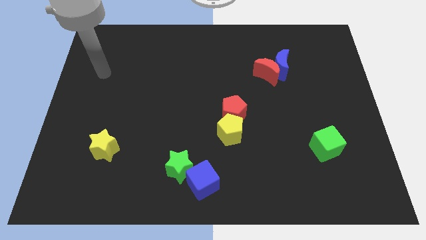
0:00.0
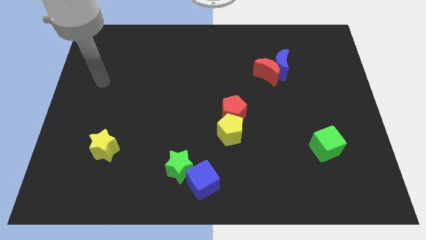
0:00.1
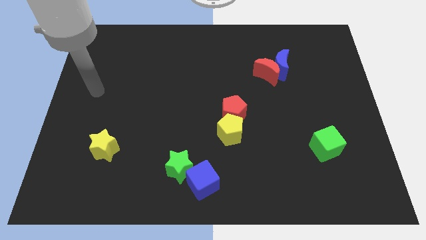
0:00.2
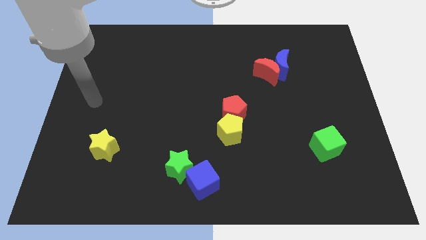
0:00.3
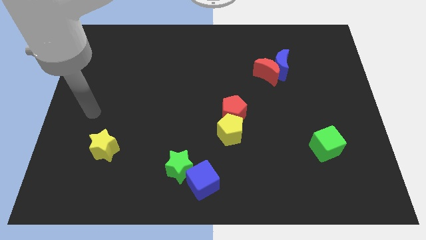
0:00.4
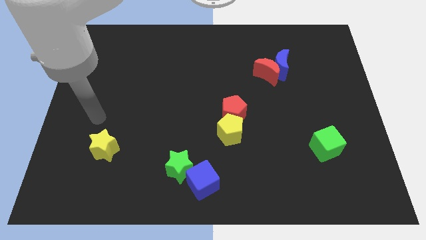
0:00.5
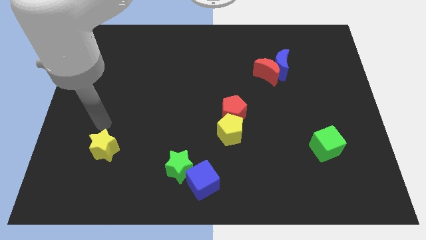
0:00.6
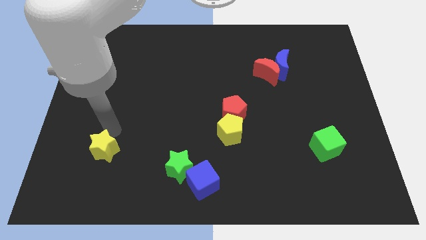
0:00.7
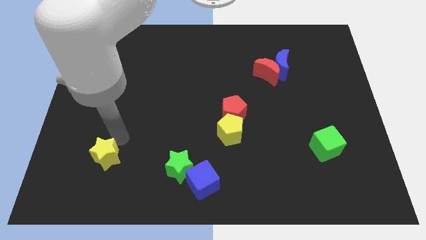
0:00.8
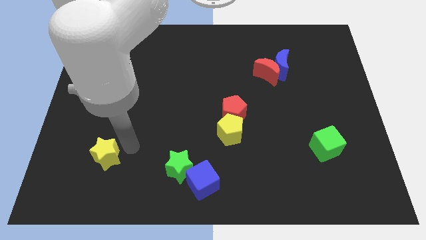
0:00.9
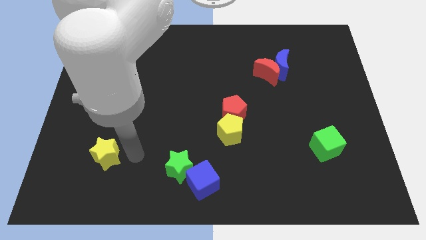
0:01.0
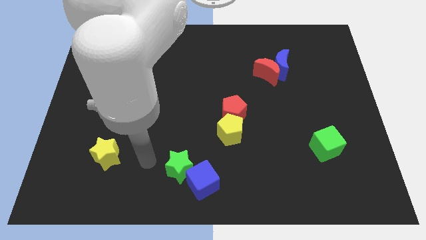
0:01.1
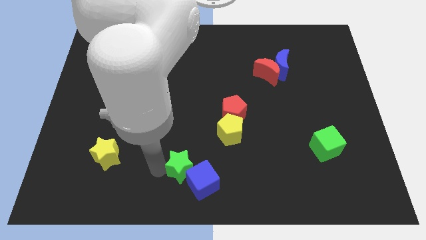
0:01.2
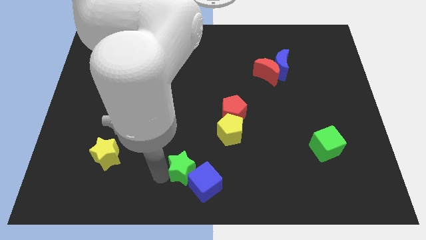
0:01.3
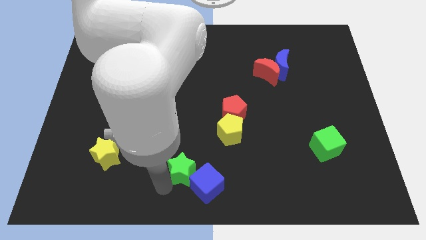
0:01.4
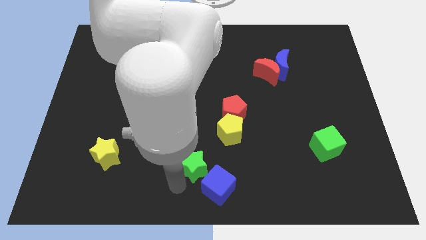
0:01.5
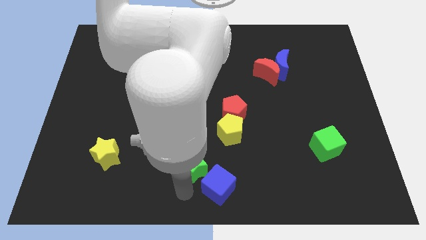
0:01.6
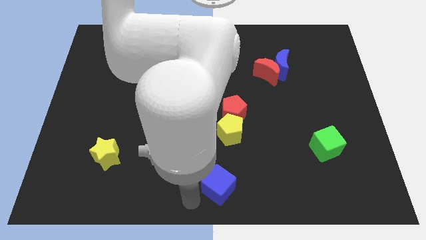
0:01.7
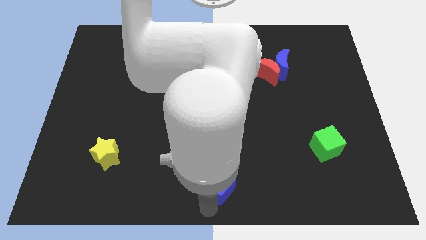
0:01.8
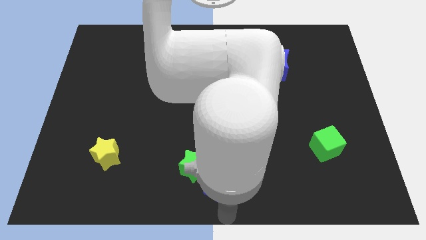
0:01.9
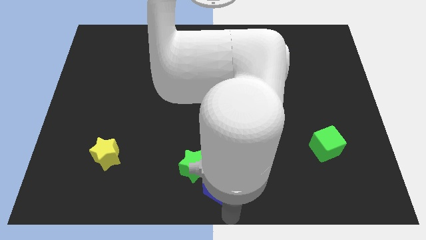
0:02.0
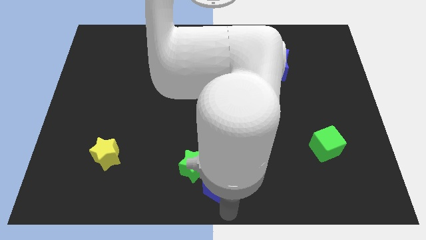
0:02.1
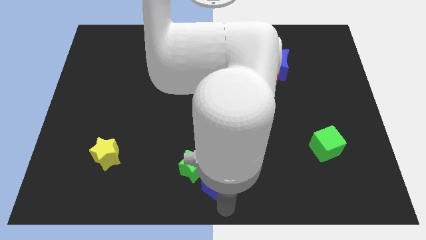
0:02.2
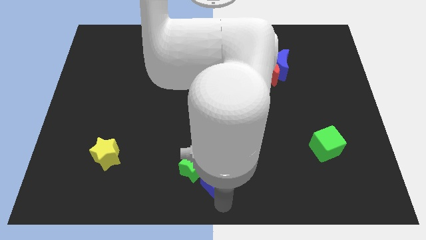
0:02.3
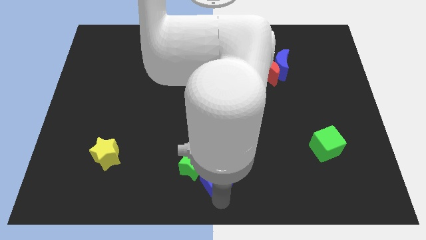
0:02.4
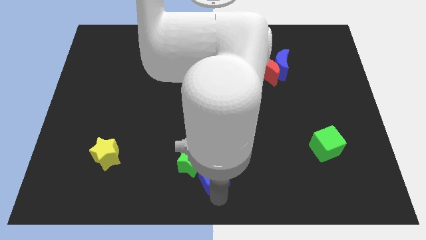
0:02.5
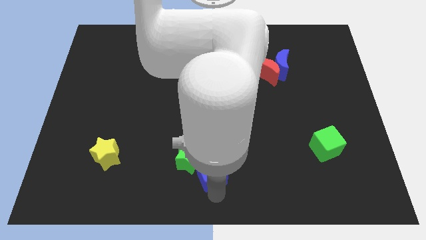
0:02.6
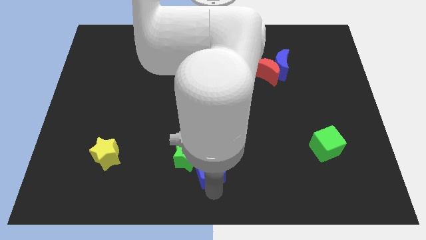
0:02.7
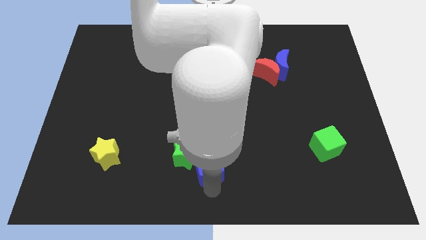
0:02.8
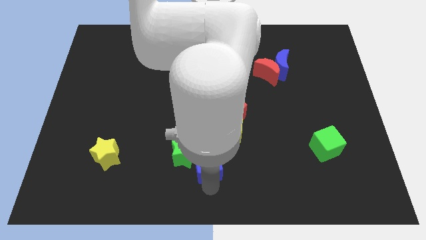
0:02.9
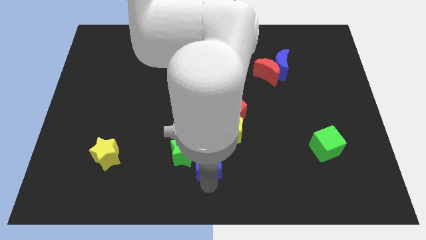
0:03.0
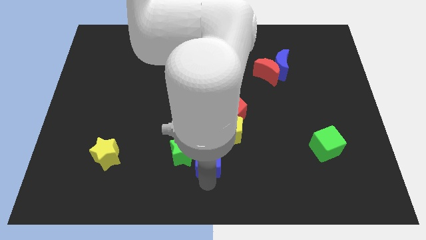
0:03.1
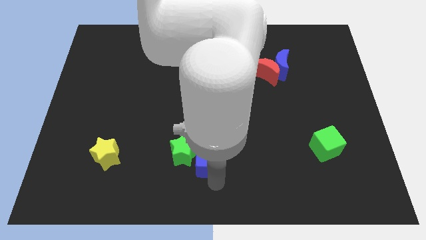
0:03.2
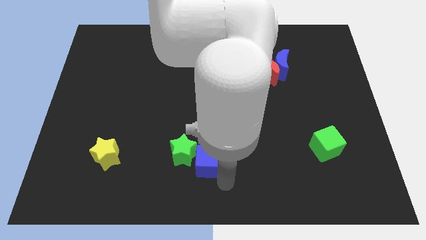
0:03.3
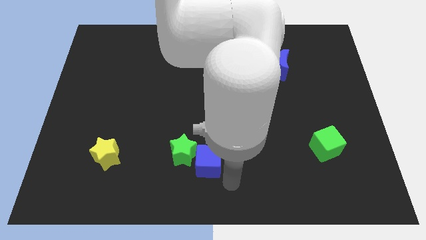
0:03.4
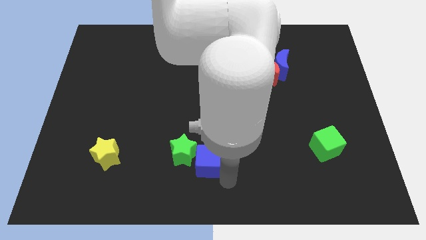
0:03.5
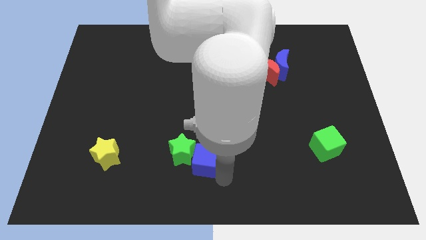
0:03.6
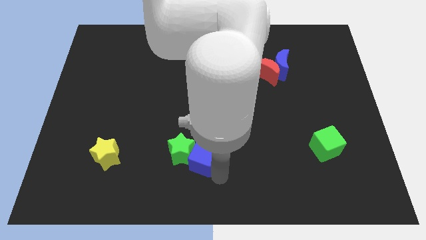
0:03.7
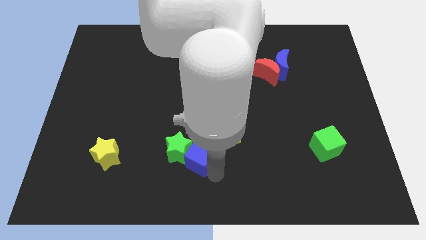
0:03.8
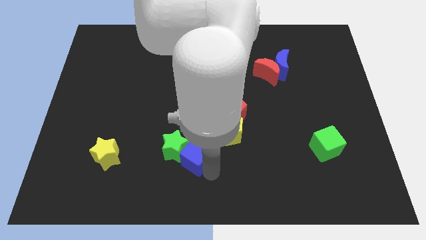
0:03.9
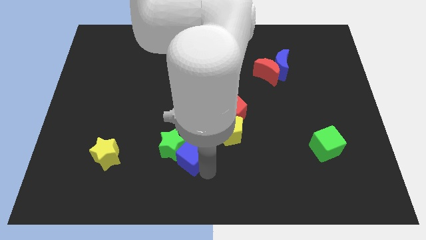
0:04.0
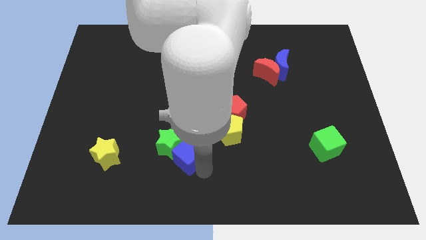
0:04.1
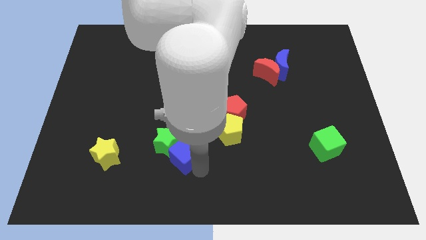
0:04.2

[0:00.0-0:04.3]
push the blue cube a little diagonally upwards and left

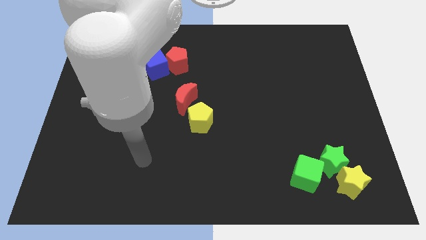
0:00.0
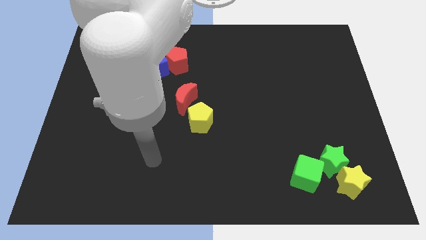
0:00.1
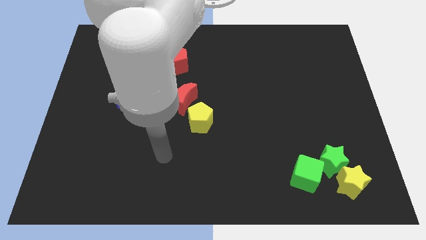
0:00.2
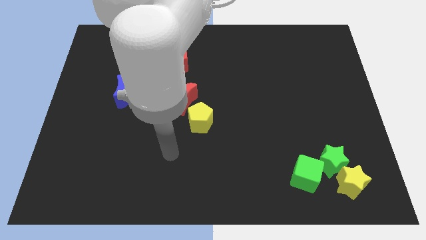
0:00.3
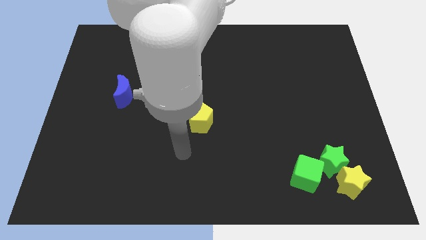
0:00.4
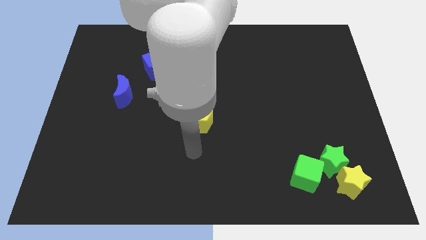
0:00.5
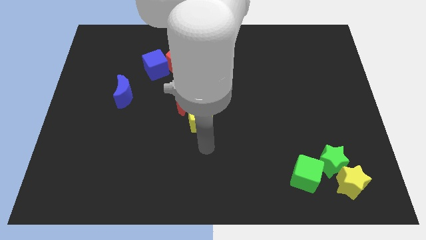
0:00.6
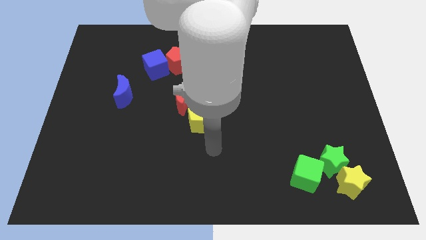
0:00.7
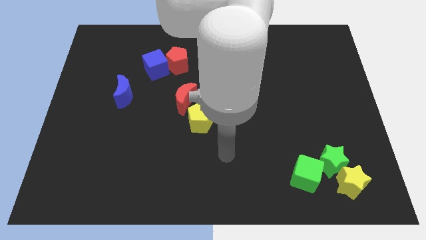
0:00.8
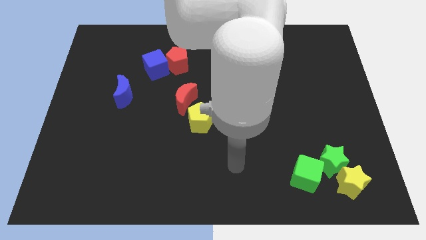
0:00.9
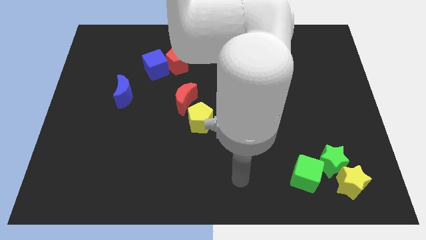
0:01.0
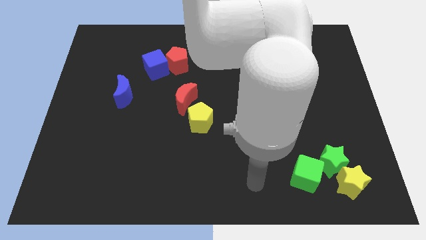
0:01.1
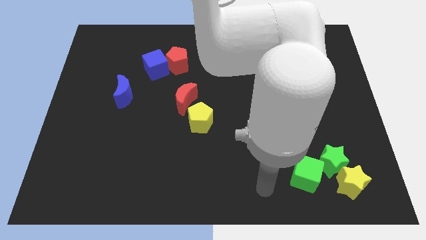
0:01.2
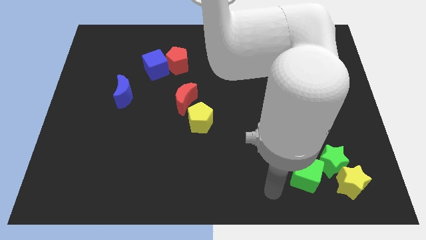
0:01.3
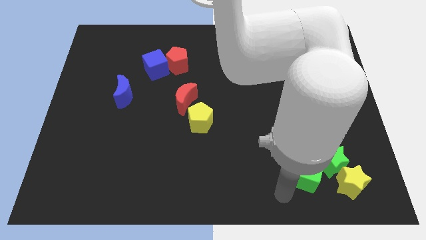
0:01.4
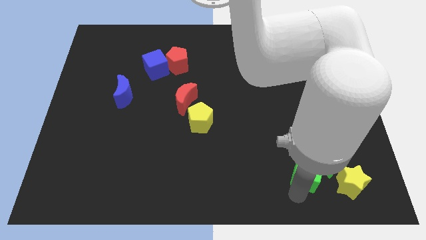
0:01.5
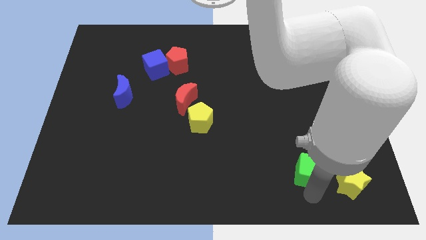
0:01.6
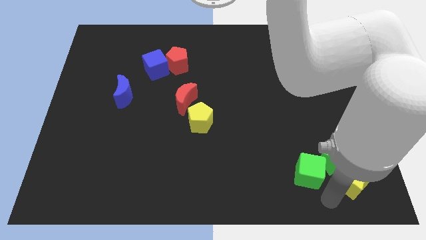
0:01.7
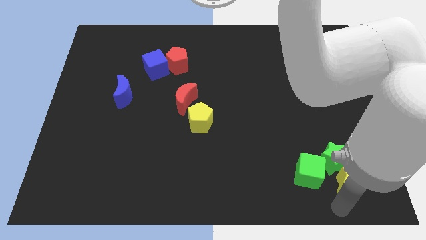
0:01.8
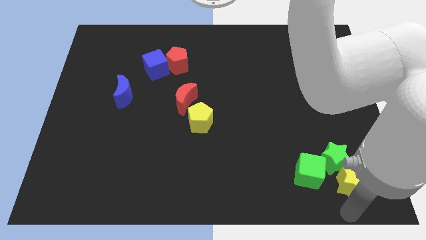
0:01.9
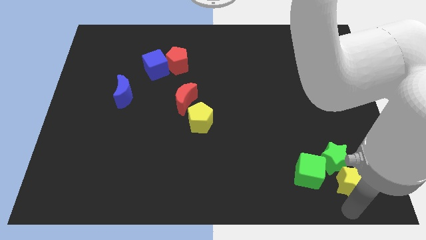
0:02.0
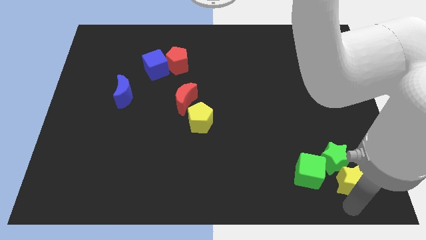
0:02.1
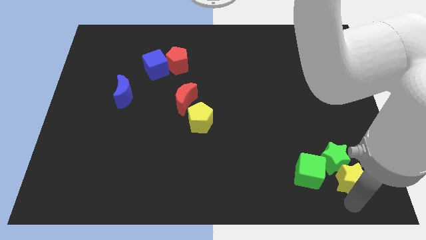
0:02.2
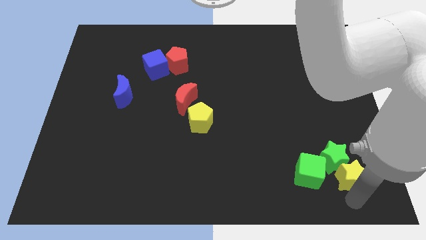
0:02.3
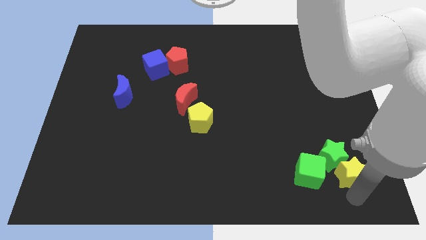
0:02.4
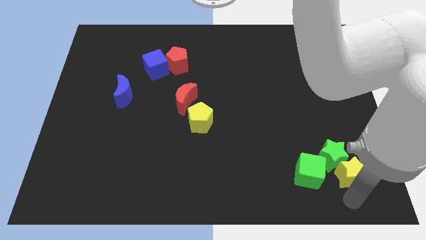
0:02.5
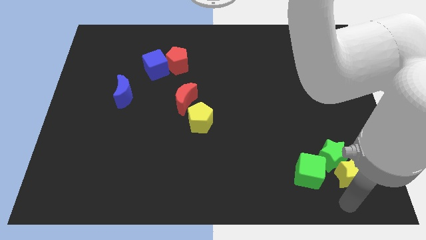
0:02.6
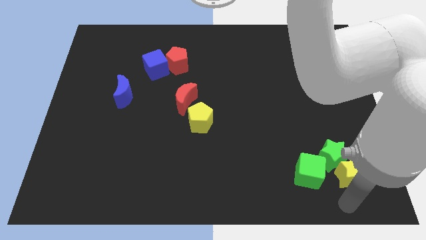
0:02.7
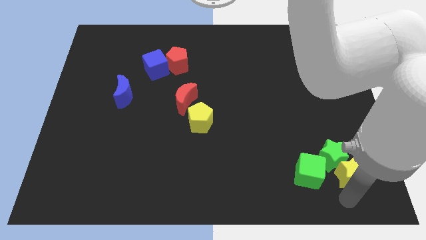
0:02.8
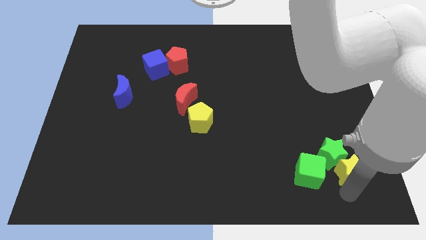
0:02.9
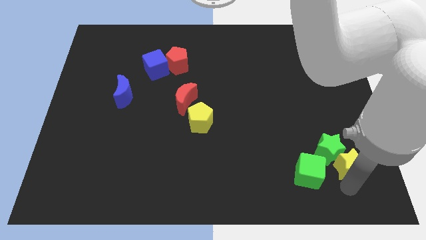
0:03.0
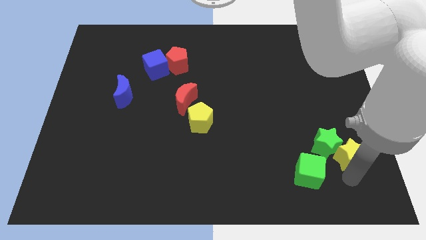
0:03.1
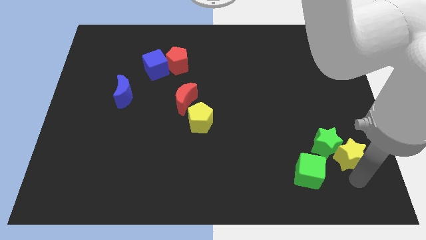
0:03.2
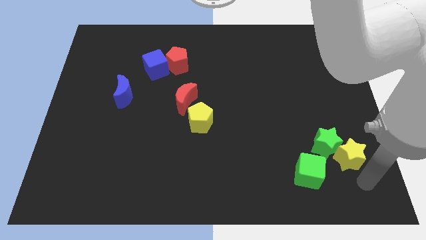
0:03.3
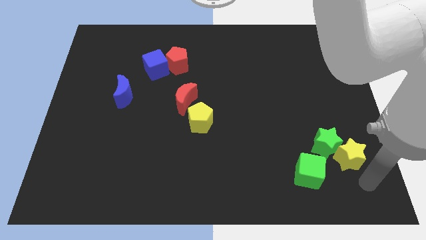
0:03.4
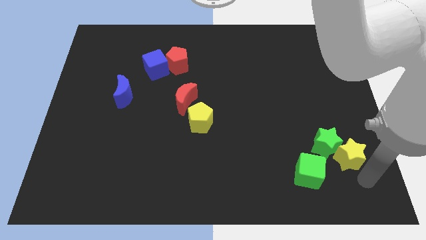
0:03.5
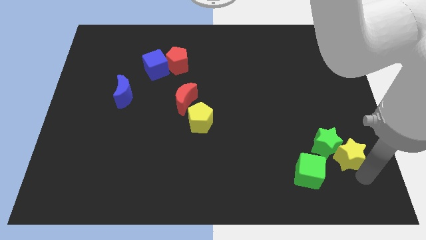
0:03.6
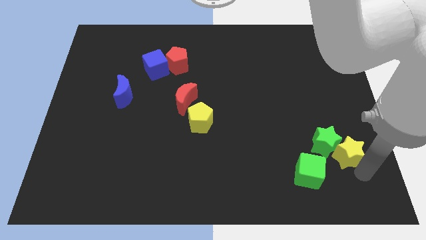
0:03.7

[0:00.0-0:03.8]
slightly slide the yellow star upwards

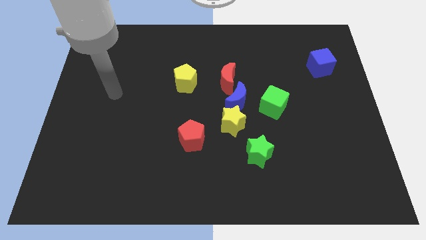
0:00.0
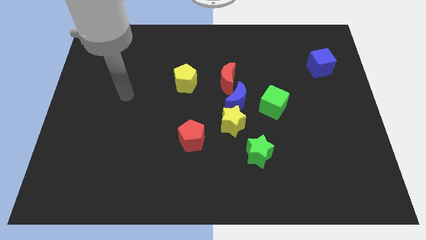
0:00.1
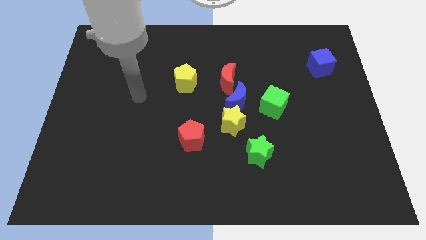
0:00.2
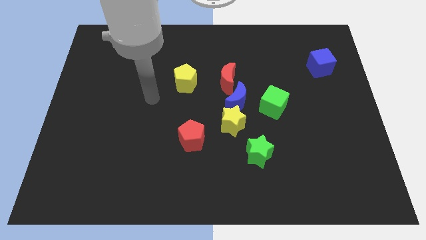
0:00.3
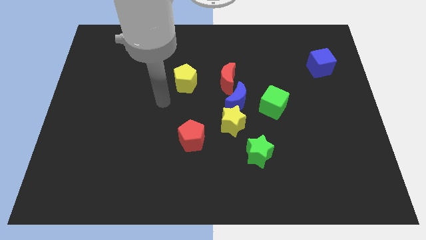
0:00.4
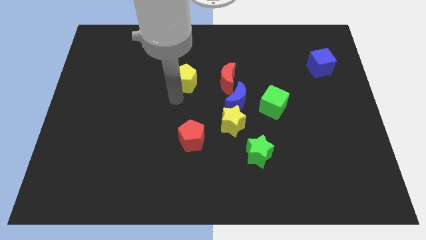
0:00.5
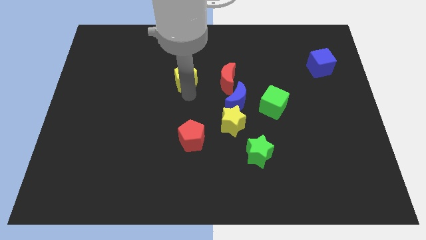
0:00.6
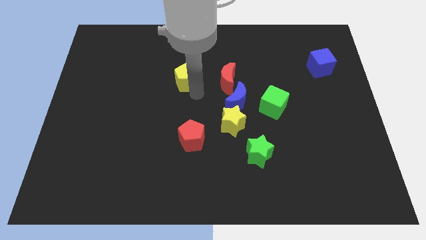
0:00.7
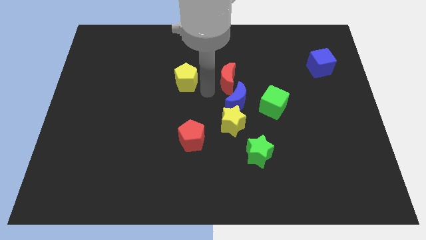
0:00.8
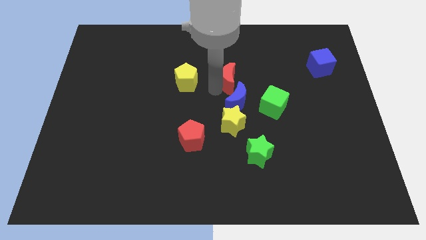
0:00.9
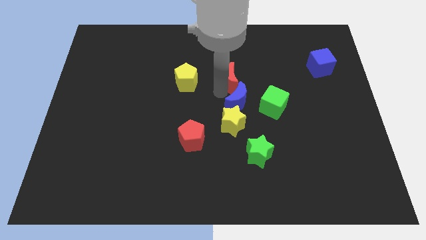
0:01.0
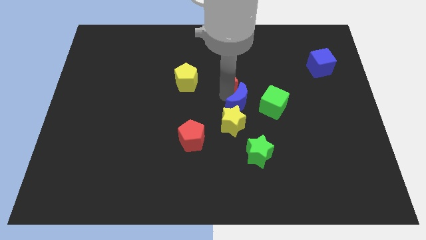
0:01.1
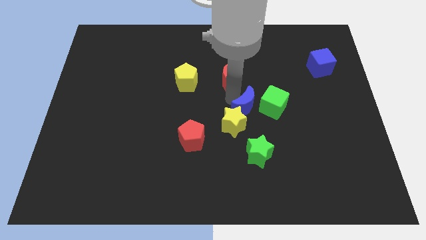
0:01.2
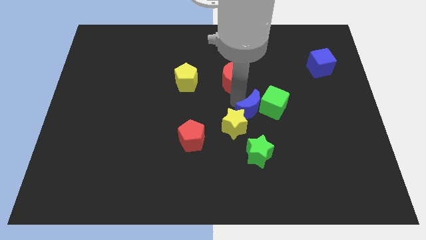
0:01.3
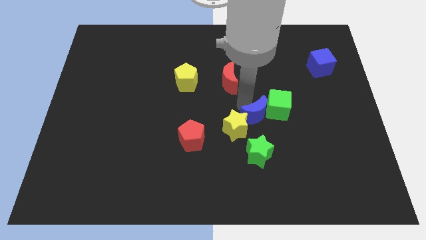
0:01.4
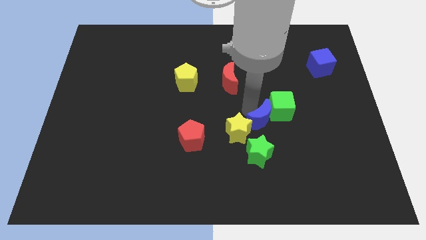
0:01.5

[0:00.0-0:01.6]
slightly slide the blue moon downwards and right
